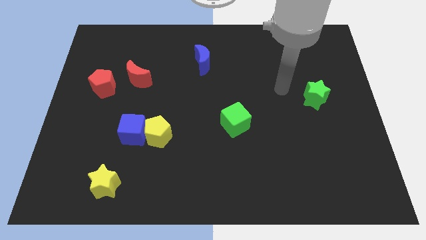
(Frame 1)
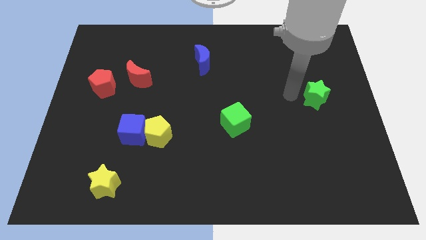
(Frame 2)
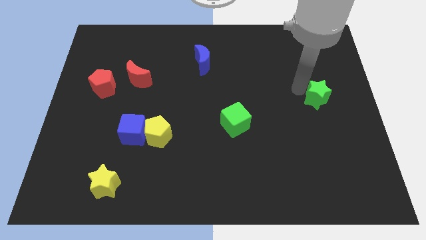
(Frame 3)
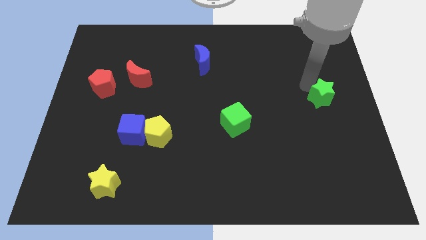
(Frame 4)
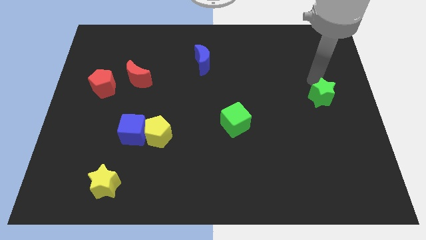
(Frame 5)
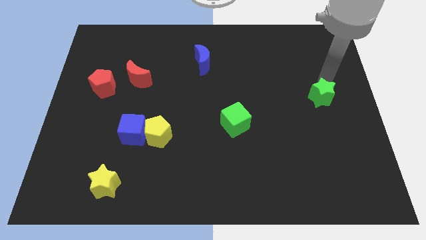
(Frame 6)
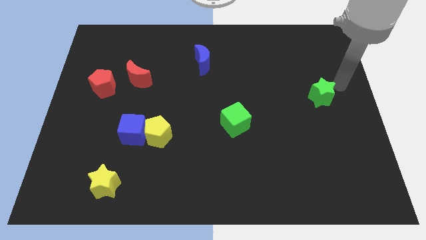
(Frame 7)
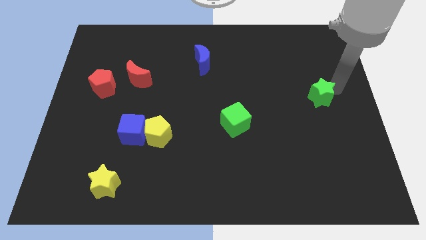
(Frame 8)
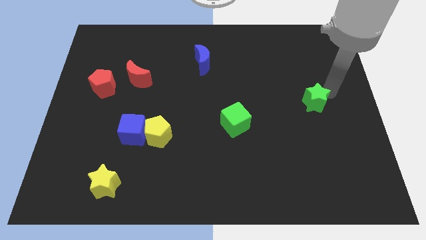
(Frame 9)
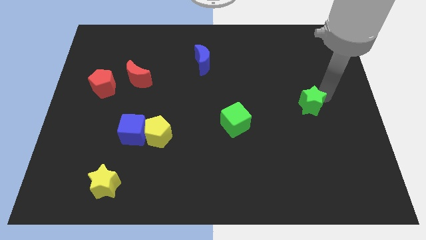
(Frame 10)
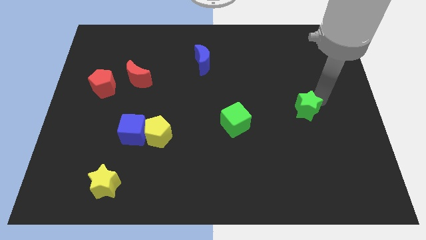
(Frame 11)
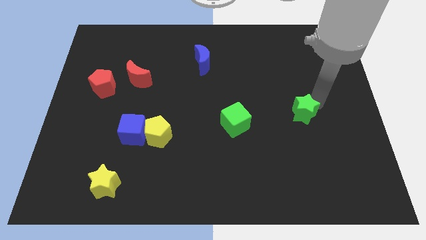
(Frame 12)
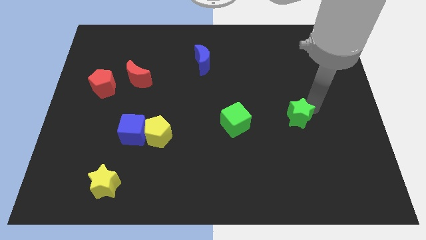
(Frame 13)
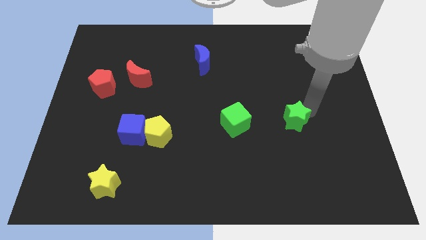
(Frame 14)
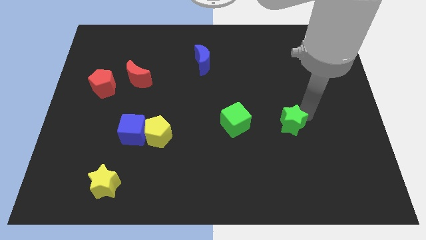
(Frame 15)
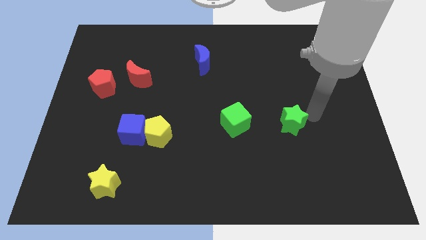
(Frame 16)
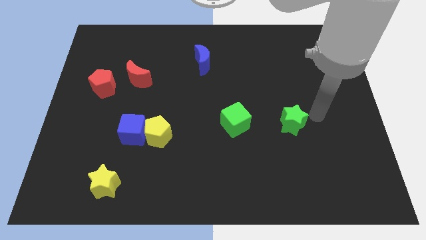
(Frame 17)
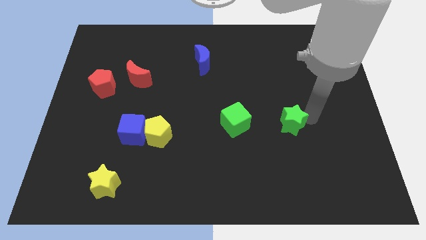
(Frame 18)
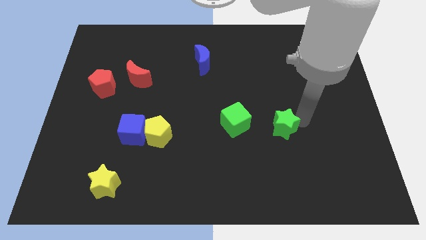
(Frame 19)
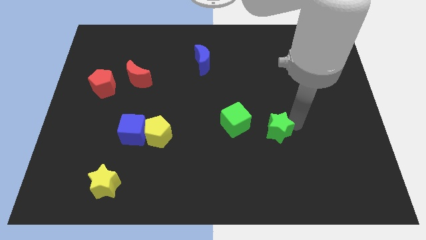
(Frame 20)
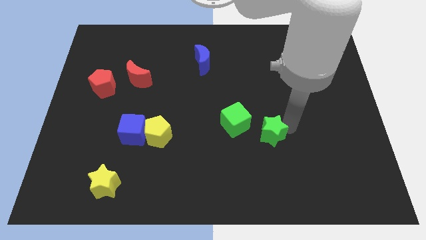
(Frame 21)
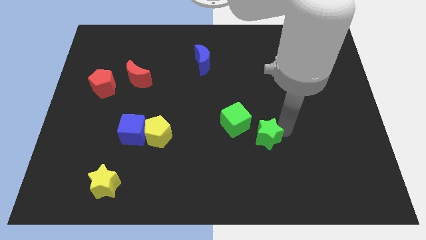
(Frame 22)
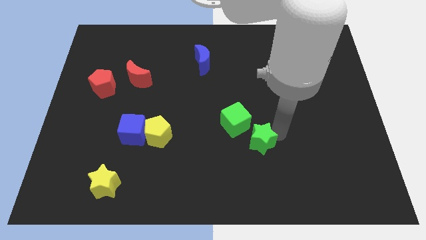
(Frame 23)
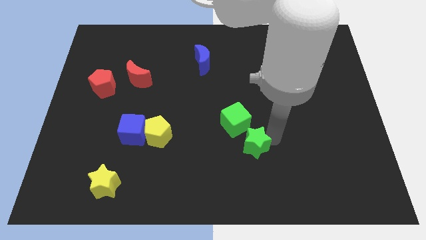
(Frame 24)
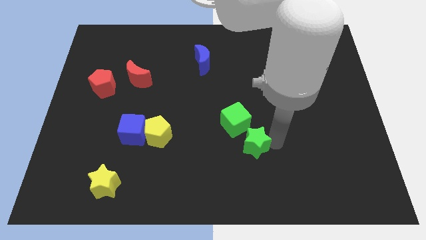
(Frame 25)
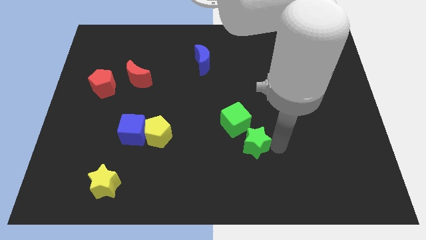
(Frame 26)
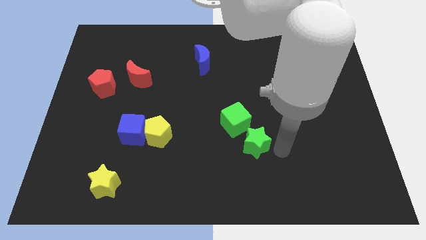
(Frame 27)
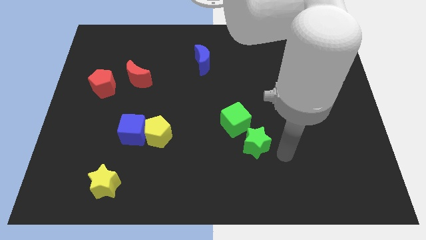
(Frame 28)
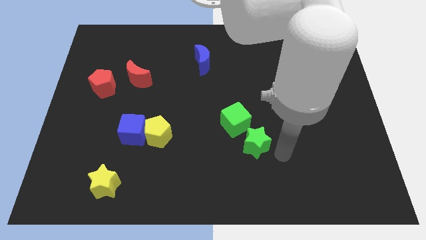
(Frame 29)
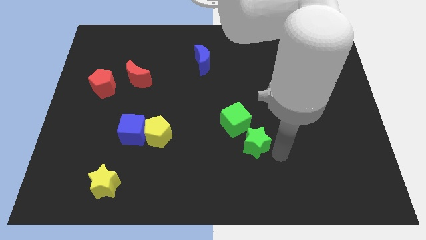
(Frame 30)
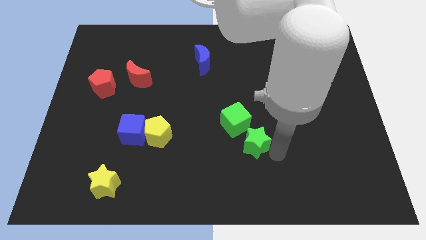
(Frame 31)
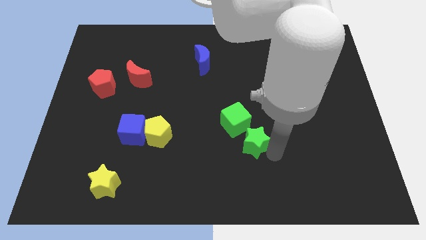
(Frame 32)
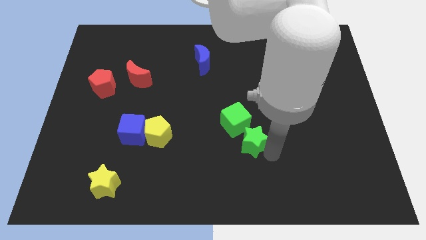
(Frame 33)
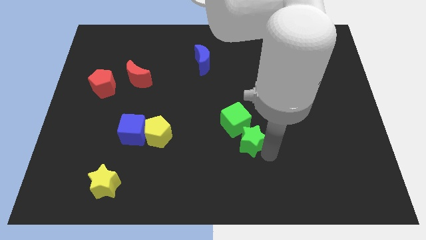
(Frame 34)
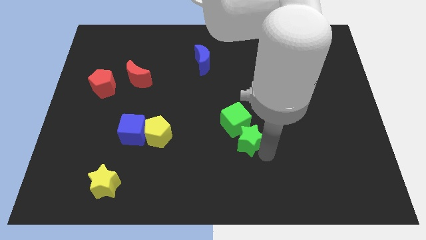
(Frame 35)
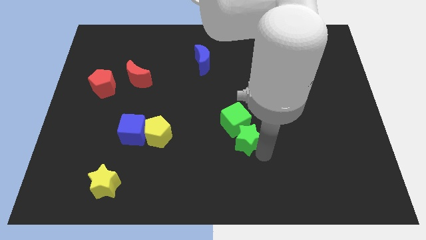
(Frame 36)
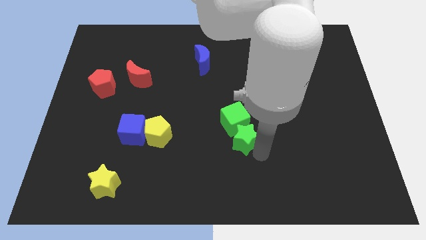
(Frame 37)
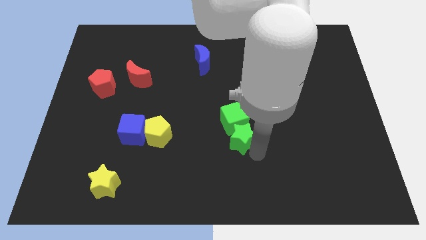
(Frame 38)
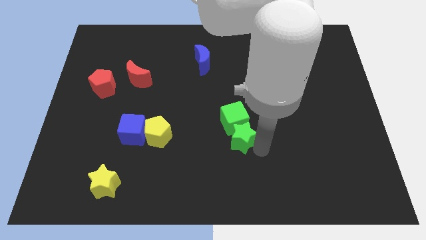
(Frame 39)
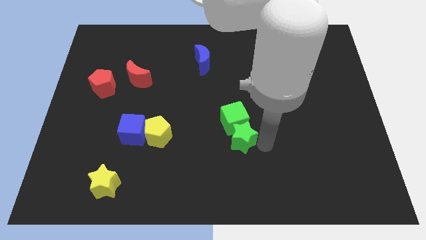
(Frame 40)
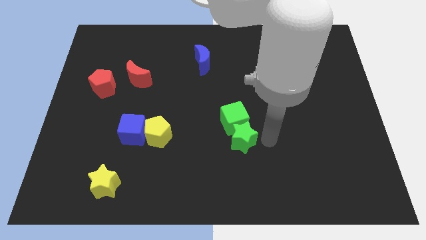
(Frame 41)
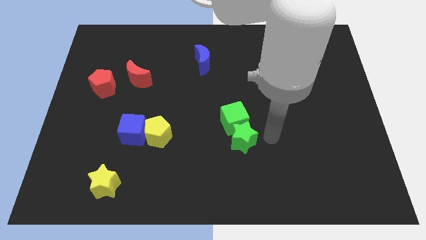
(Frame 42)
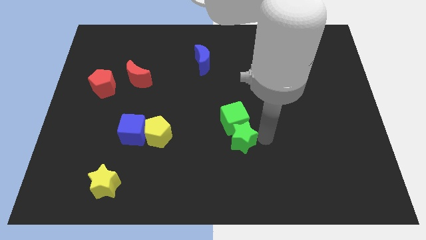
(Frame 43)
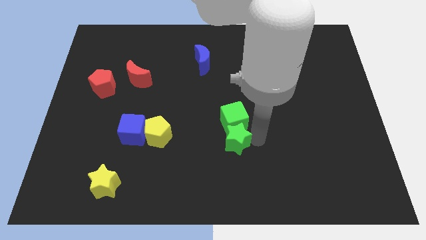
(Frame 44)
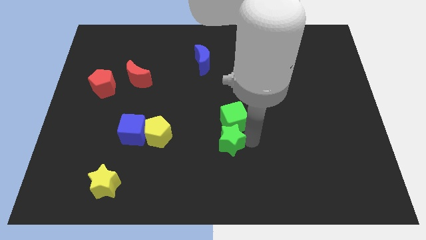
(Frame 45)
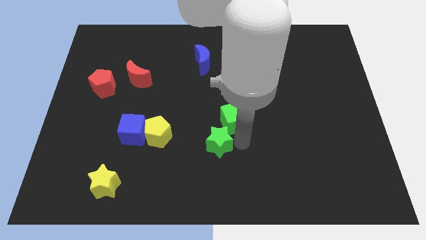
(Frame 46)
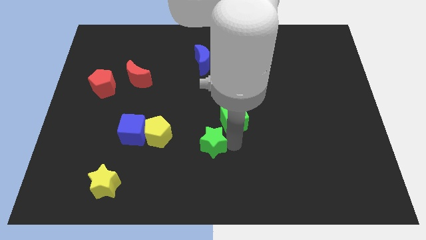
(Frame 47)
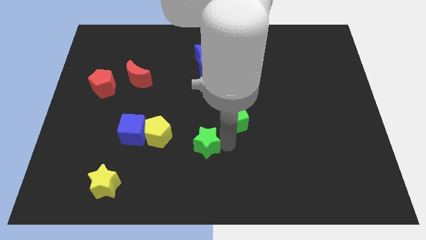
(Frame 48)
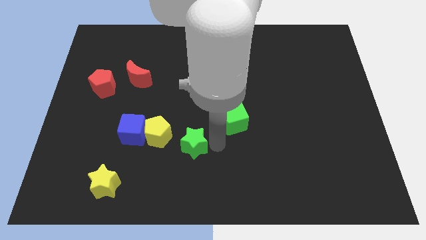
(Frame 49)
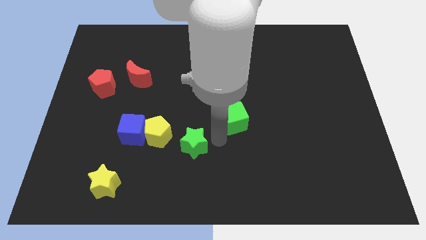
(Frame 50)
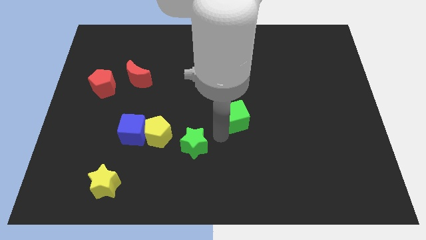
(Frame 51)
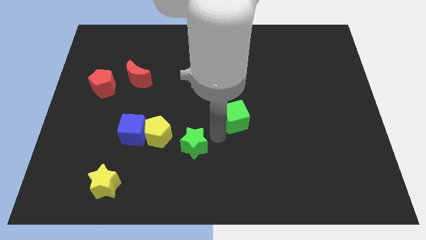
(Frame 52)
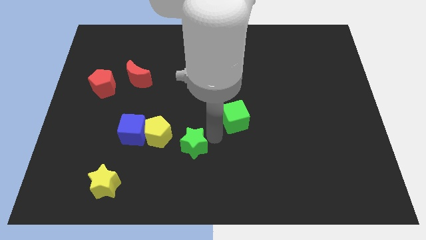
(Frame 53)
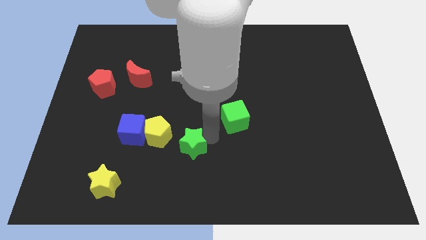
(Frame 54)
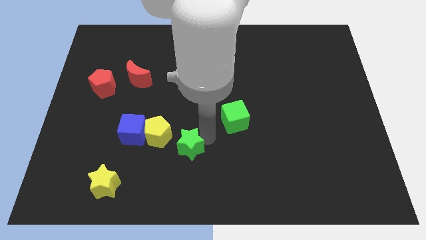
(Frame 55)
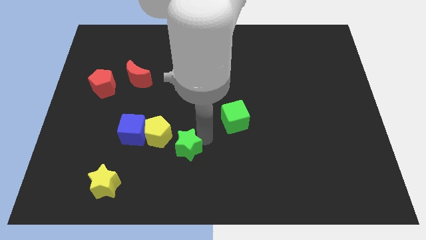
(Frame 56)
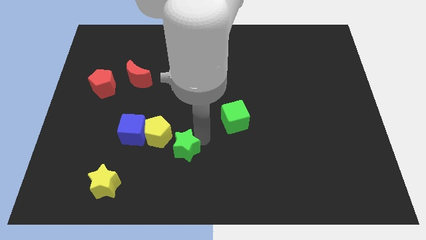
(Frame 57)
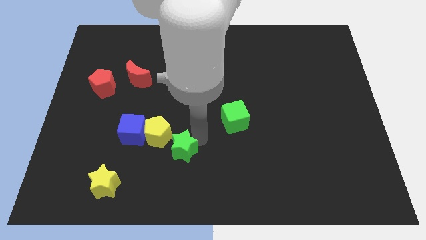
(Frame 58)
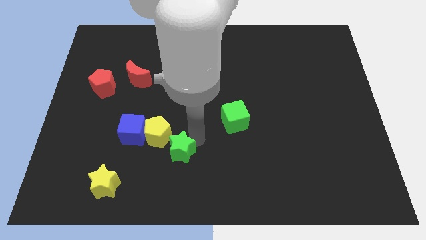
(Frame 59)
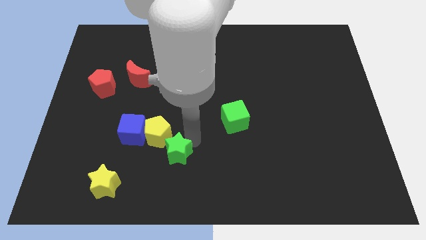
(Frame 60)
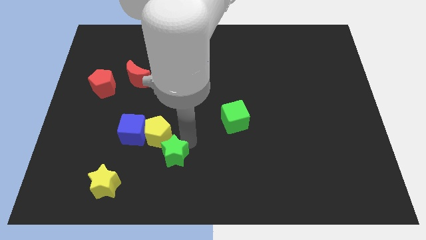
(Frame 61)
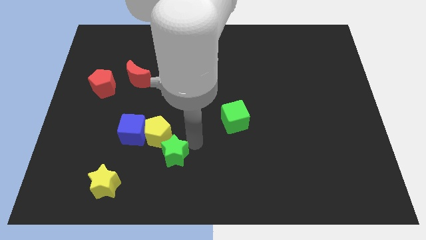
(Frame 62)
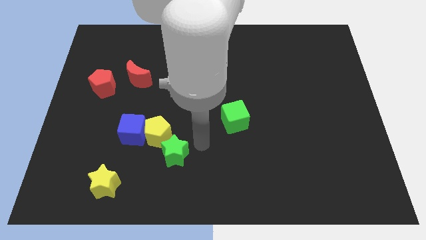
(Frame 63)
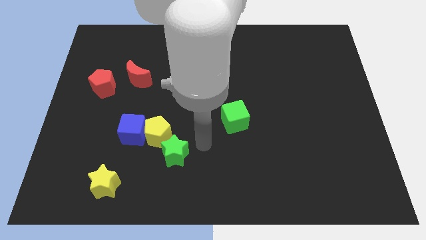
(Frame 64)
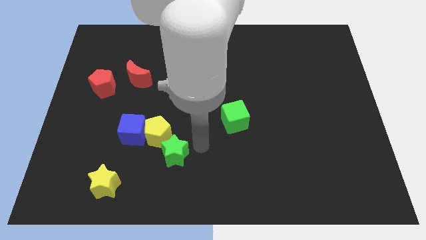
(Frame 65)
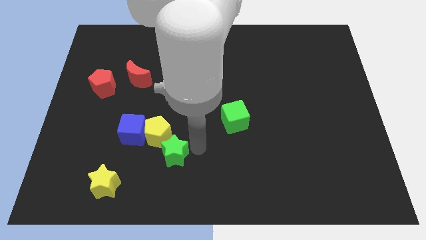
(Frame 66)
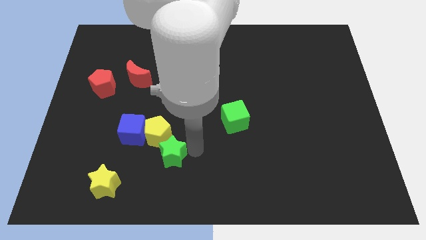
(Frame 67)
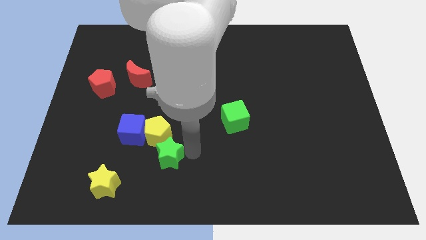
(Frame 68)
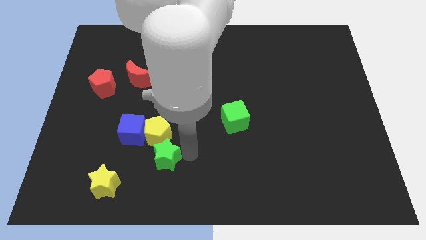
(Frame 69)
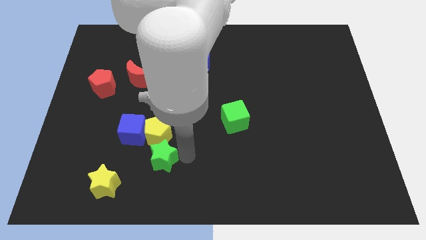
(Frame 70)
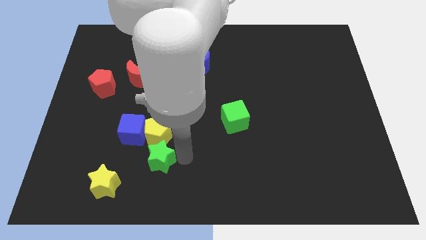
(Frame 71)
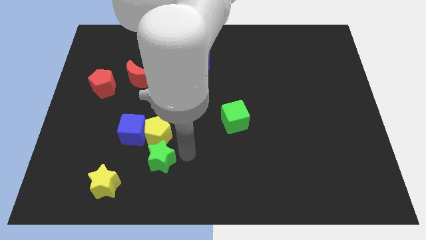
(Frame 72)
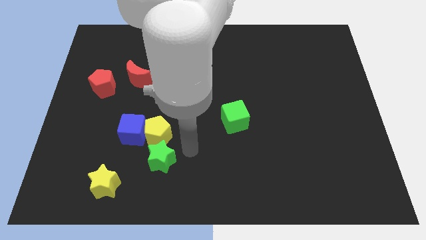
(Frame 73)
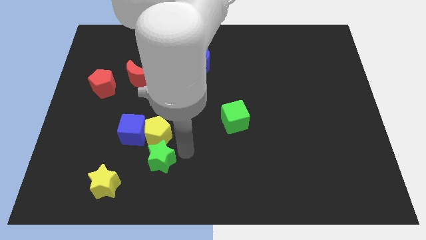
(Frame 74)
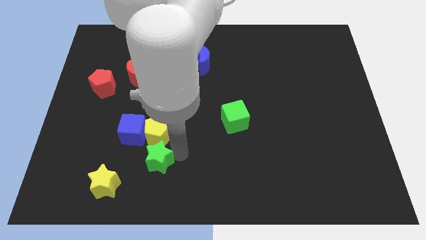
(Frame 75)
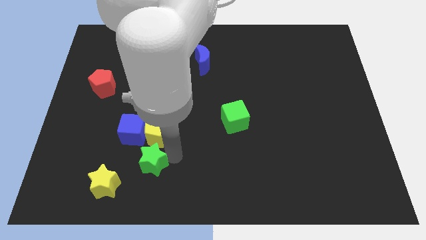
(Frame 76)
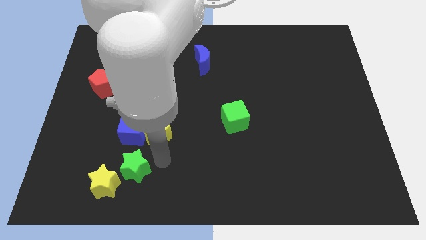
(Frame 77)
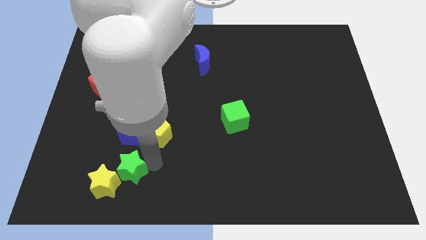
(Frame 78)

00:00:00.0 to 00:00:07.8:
push the green star to the yellow star

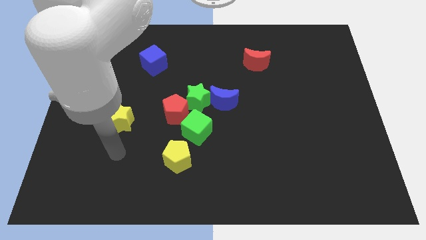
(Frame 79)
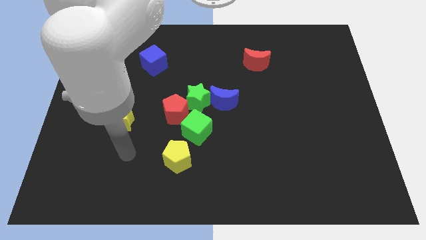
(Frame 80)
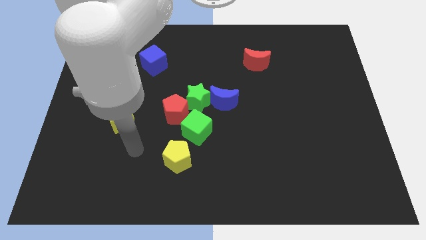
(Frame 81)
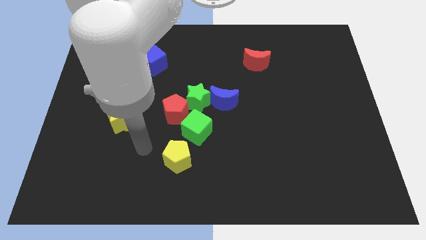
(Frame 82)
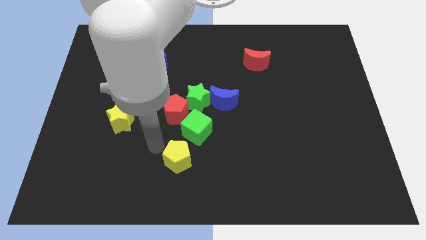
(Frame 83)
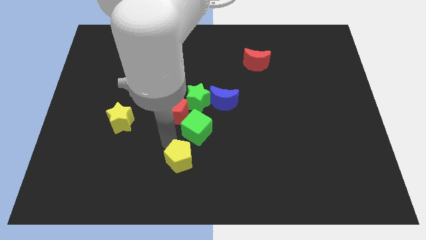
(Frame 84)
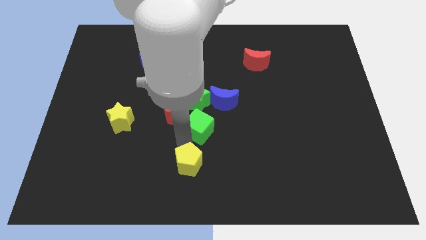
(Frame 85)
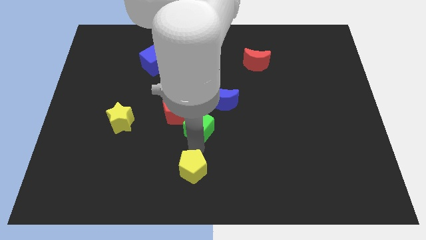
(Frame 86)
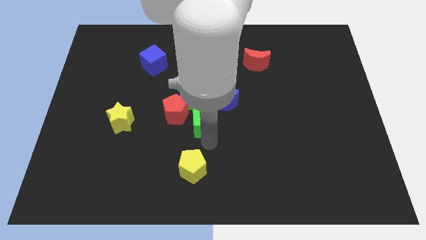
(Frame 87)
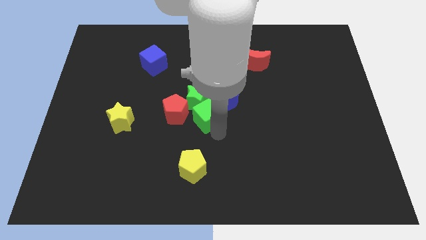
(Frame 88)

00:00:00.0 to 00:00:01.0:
slide the blue moon close to the green cube
